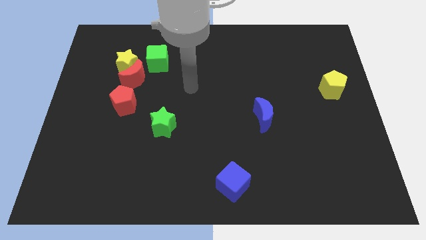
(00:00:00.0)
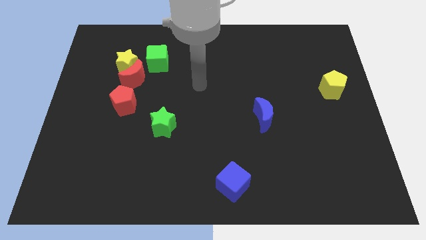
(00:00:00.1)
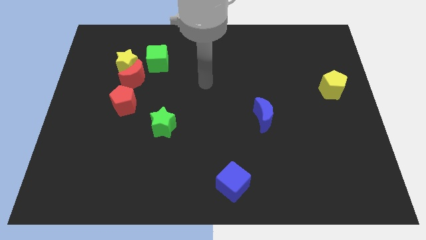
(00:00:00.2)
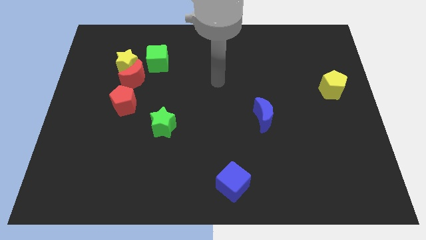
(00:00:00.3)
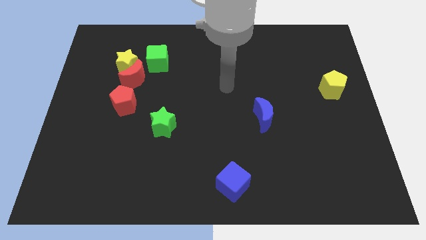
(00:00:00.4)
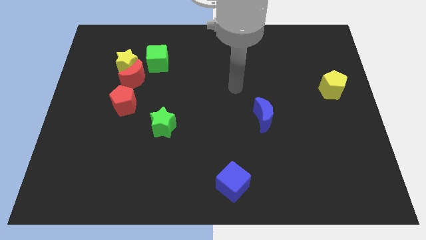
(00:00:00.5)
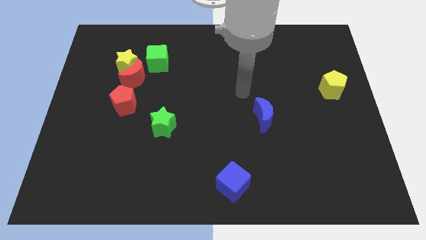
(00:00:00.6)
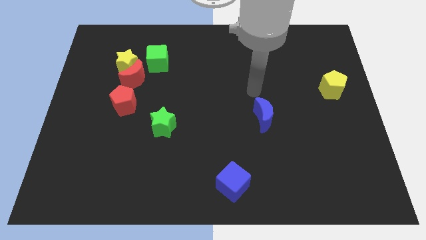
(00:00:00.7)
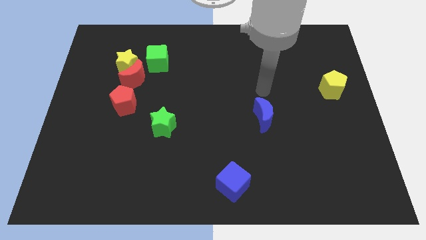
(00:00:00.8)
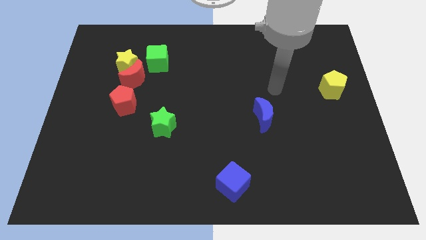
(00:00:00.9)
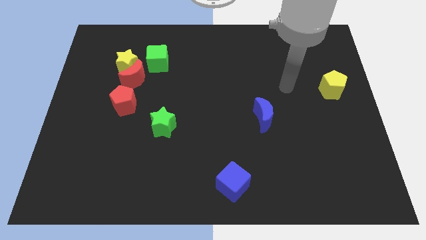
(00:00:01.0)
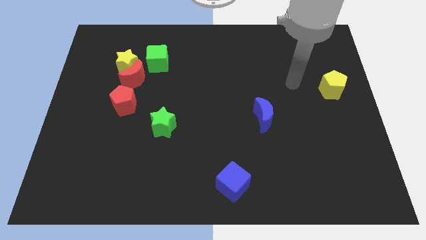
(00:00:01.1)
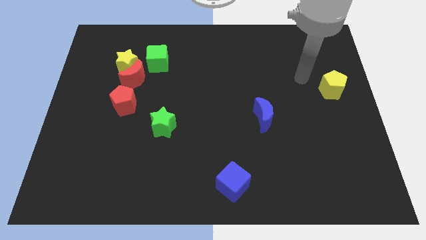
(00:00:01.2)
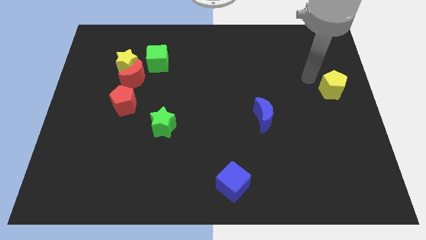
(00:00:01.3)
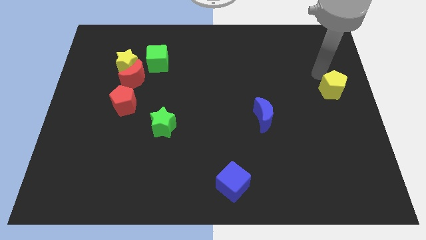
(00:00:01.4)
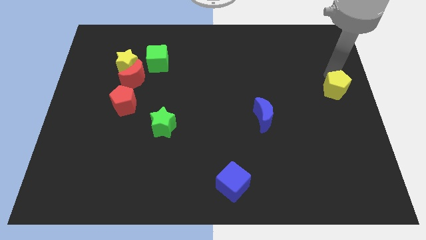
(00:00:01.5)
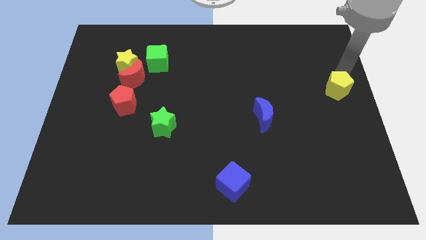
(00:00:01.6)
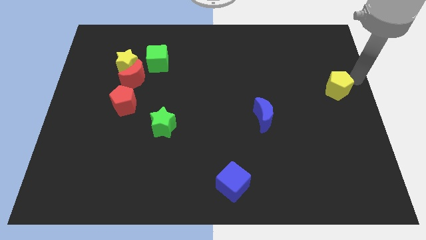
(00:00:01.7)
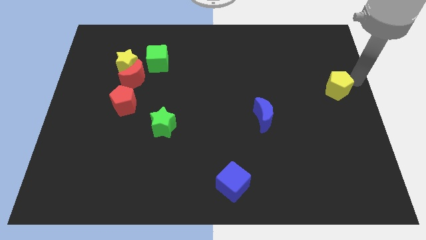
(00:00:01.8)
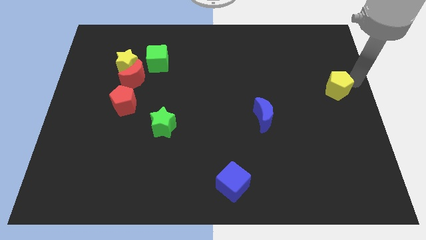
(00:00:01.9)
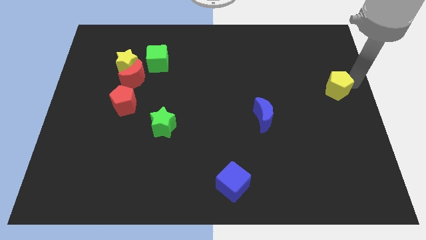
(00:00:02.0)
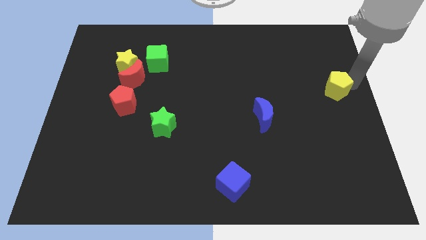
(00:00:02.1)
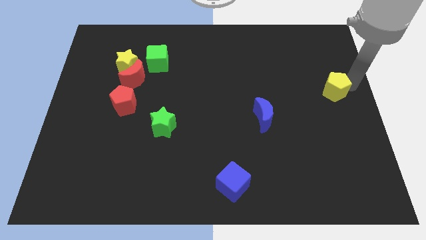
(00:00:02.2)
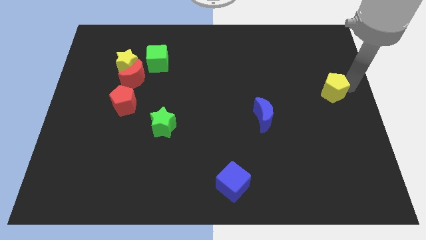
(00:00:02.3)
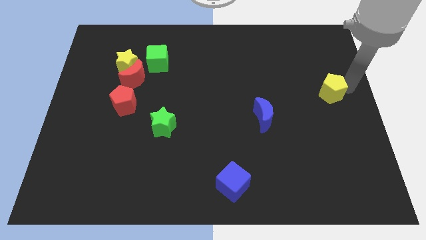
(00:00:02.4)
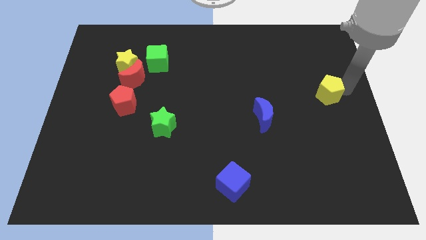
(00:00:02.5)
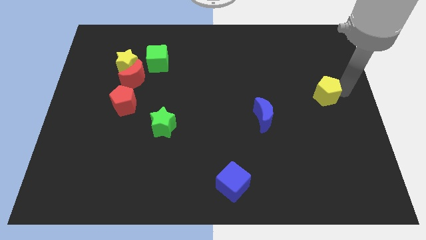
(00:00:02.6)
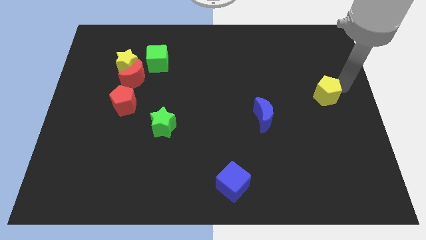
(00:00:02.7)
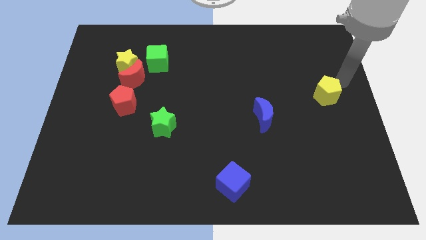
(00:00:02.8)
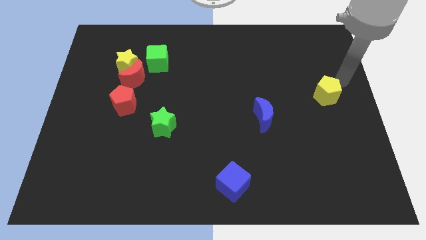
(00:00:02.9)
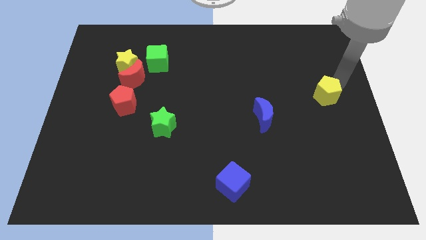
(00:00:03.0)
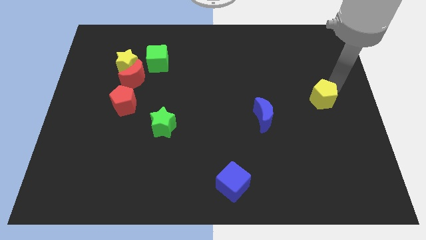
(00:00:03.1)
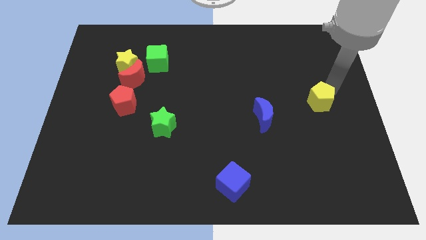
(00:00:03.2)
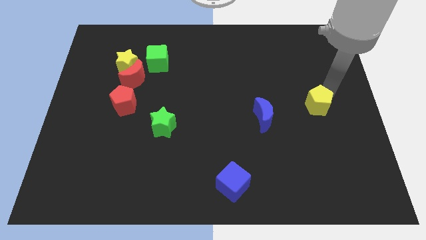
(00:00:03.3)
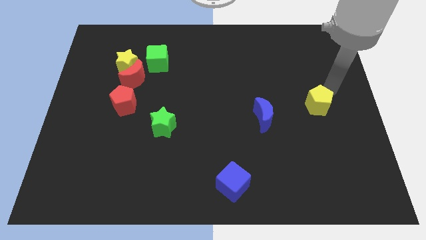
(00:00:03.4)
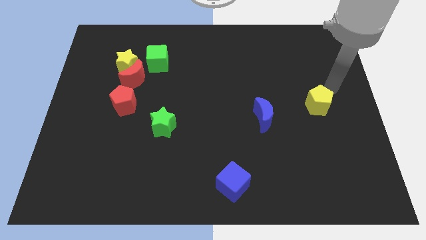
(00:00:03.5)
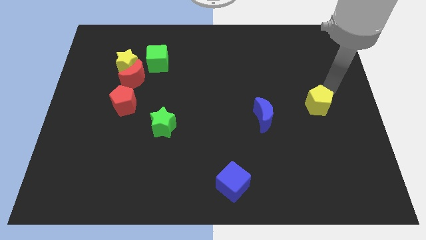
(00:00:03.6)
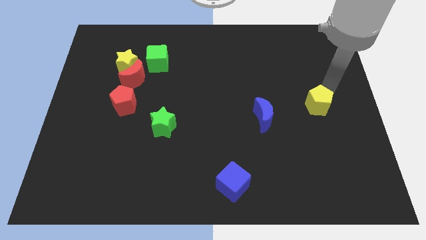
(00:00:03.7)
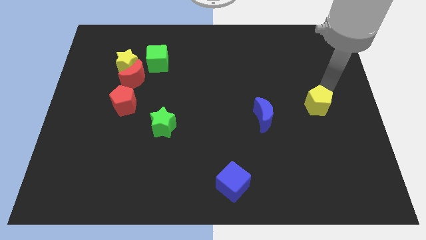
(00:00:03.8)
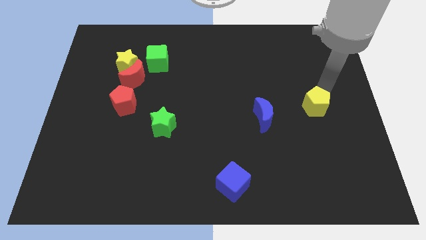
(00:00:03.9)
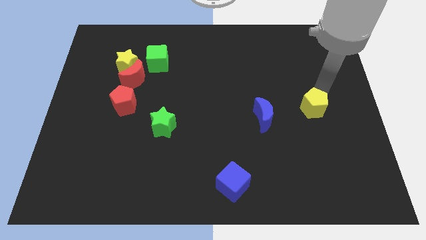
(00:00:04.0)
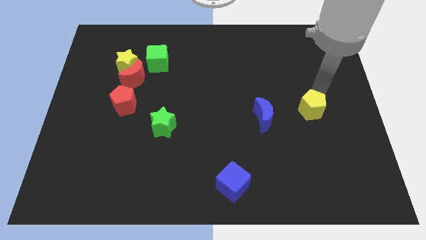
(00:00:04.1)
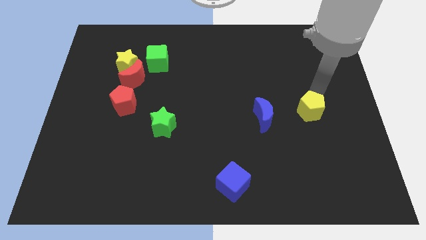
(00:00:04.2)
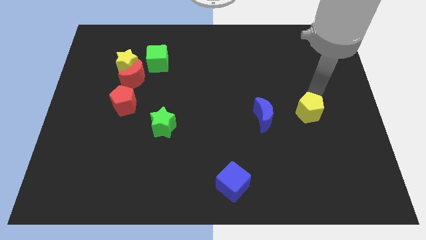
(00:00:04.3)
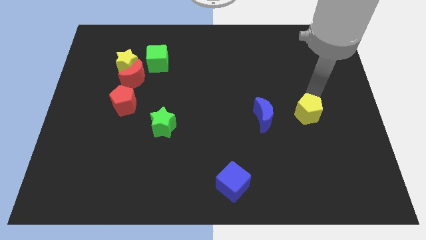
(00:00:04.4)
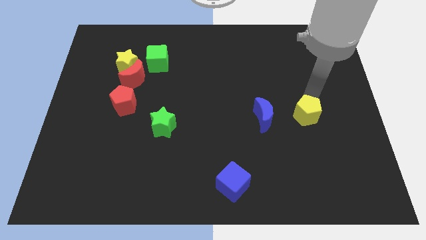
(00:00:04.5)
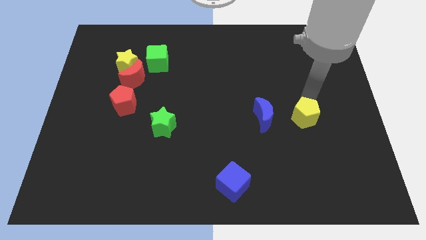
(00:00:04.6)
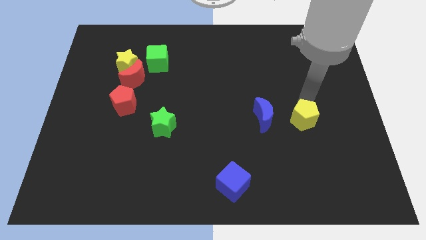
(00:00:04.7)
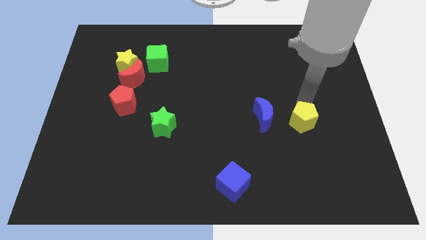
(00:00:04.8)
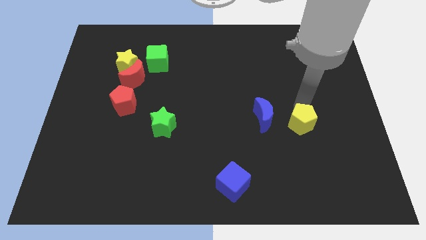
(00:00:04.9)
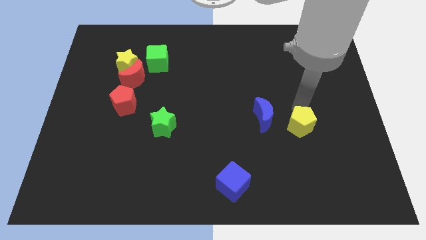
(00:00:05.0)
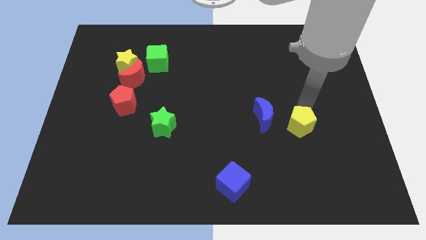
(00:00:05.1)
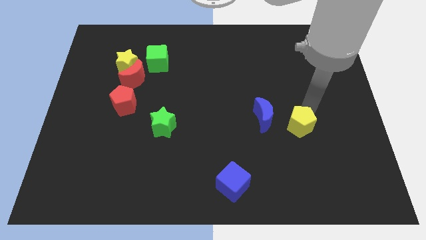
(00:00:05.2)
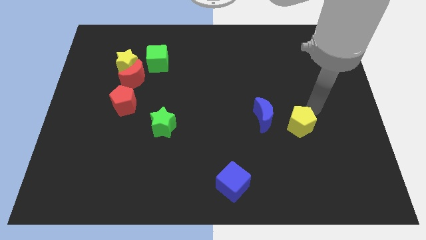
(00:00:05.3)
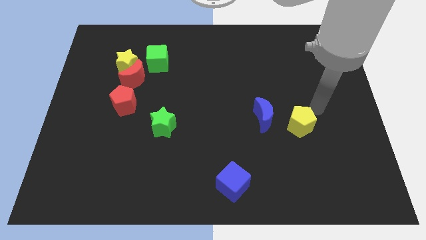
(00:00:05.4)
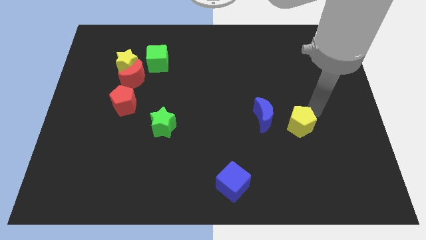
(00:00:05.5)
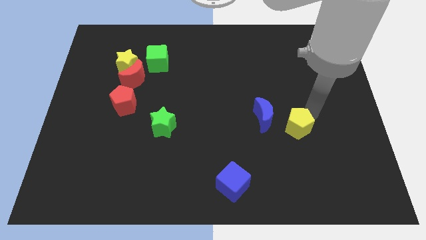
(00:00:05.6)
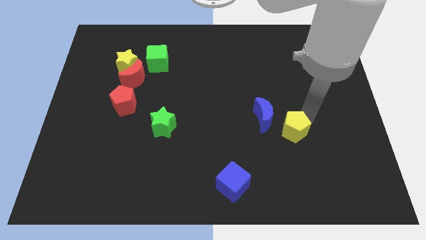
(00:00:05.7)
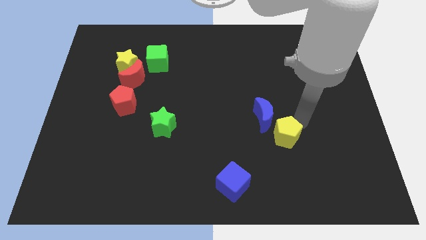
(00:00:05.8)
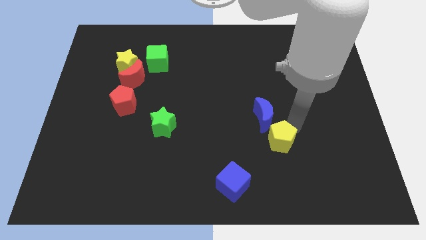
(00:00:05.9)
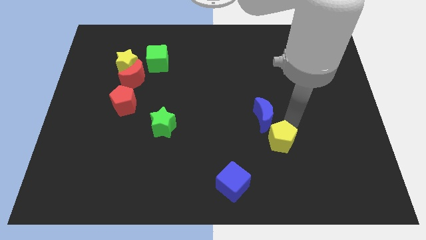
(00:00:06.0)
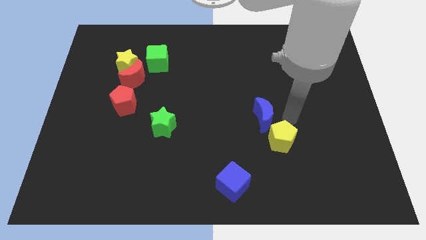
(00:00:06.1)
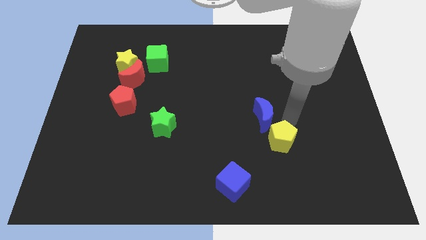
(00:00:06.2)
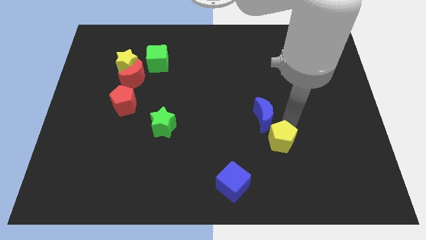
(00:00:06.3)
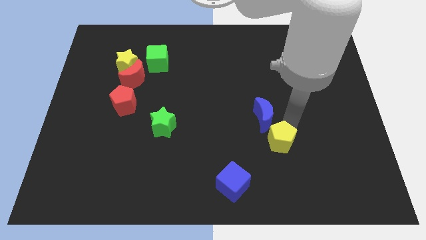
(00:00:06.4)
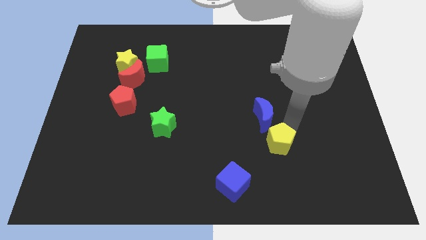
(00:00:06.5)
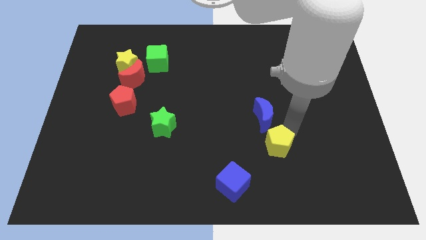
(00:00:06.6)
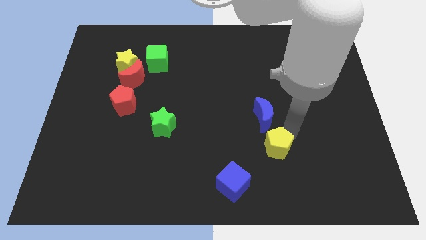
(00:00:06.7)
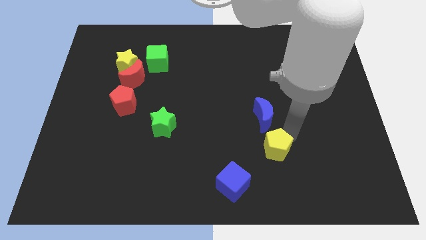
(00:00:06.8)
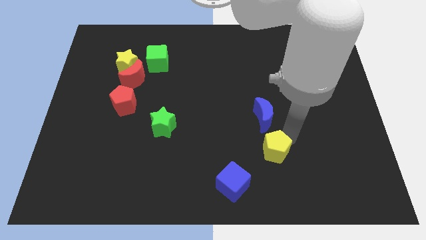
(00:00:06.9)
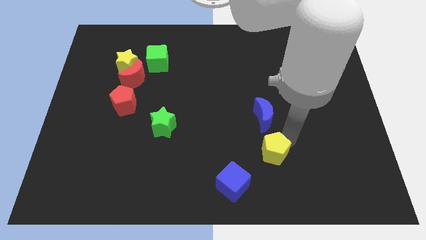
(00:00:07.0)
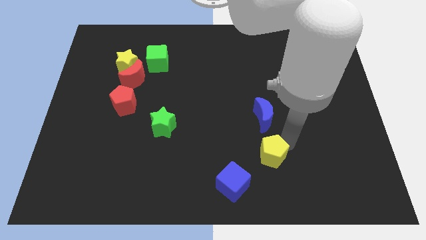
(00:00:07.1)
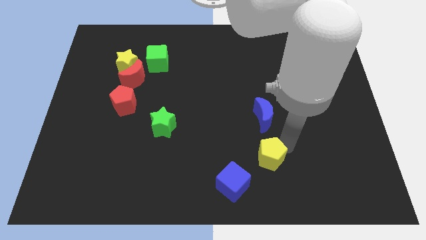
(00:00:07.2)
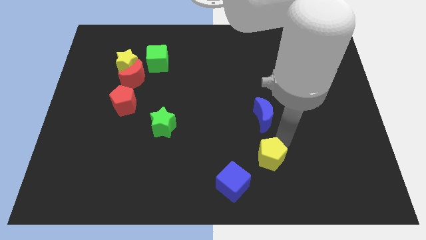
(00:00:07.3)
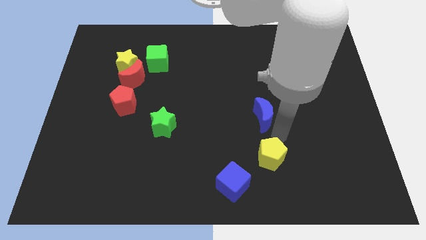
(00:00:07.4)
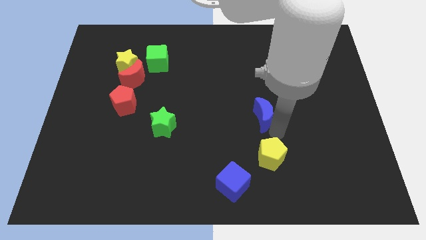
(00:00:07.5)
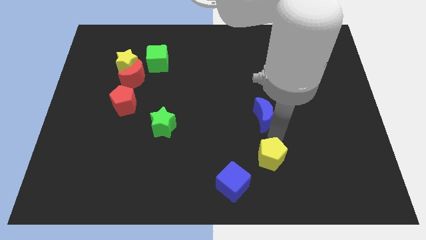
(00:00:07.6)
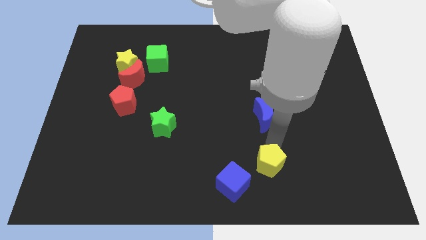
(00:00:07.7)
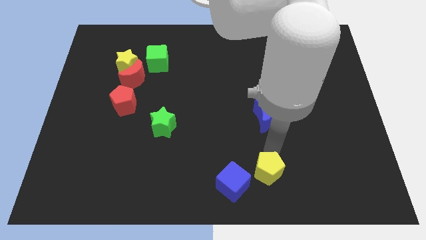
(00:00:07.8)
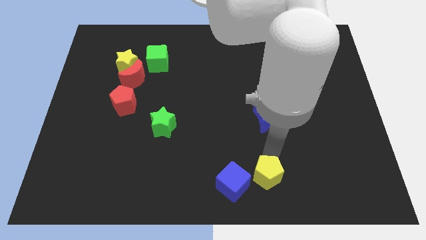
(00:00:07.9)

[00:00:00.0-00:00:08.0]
move the yellow pentagon to the bottom
